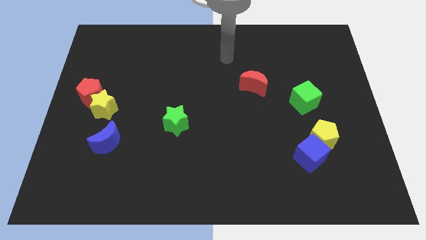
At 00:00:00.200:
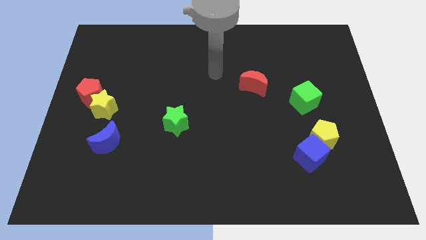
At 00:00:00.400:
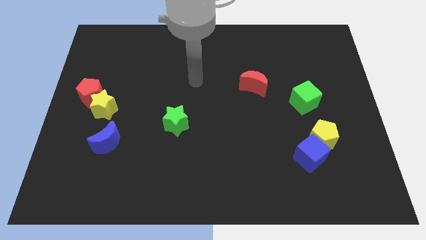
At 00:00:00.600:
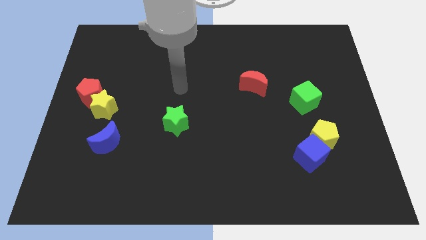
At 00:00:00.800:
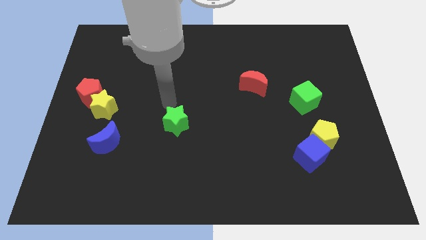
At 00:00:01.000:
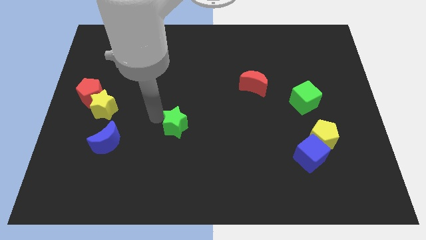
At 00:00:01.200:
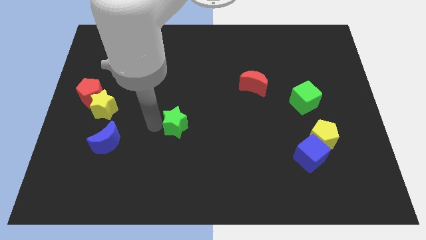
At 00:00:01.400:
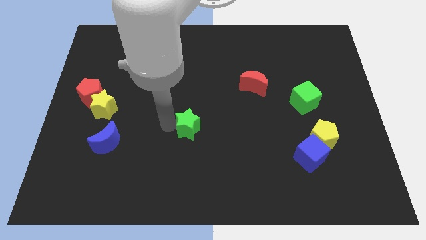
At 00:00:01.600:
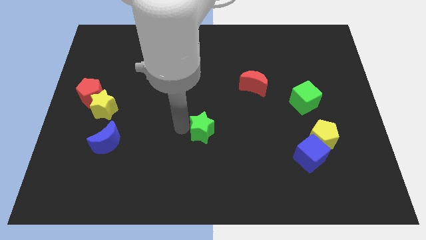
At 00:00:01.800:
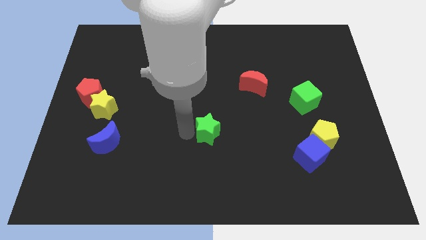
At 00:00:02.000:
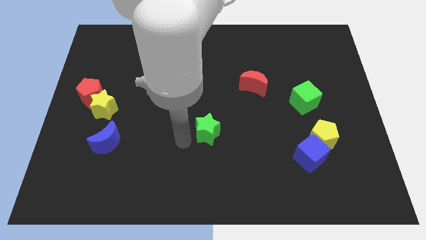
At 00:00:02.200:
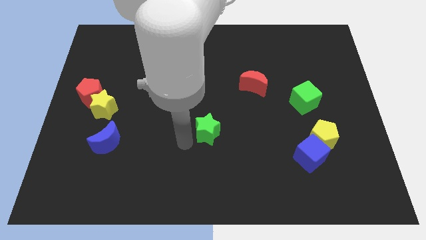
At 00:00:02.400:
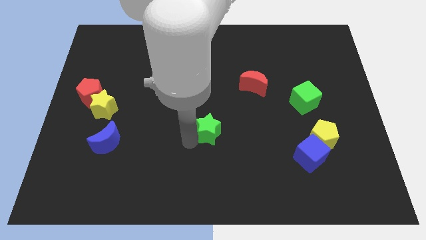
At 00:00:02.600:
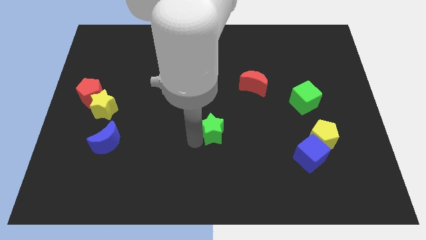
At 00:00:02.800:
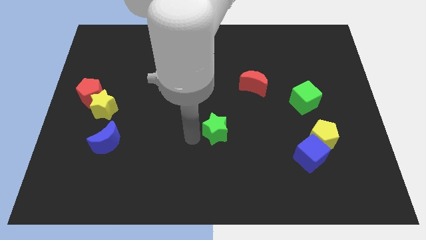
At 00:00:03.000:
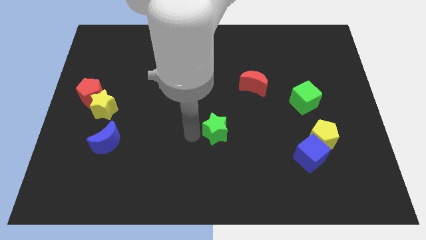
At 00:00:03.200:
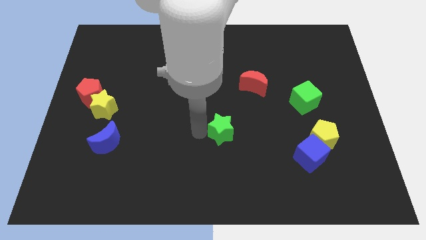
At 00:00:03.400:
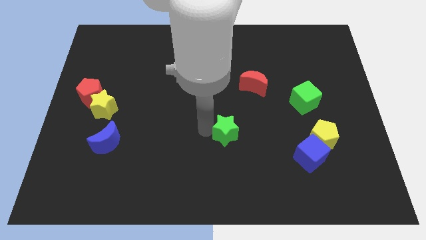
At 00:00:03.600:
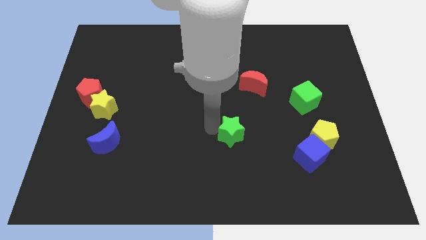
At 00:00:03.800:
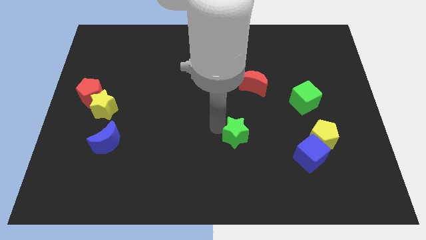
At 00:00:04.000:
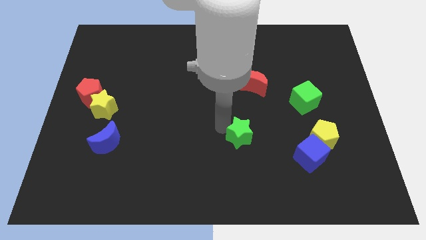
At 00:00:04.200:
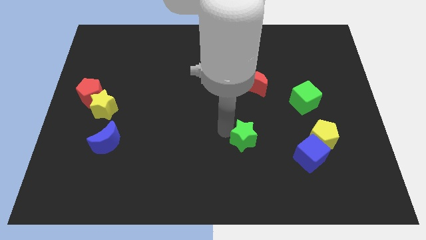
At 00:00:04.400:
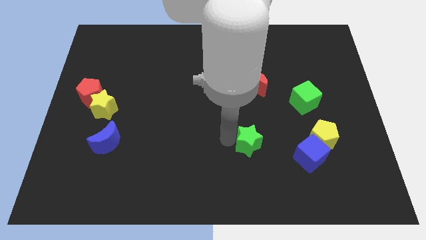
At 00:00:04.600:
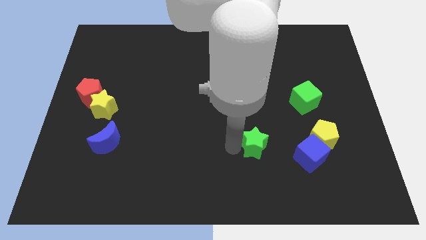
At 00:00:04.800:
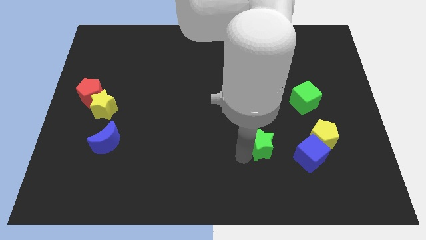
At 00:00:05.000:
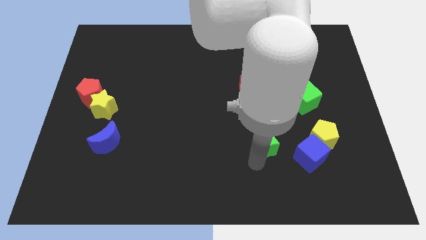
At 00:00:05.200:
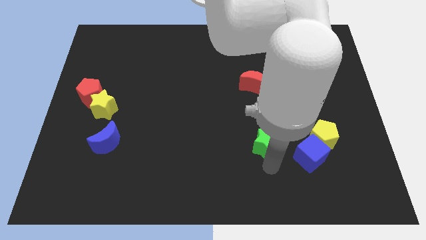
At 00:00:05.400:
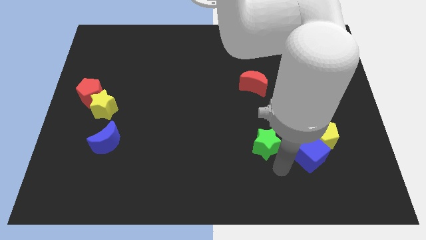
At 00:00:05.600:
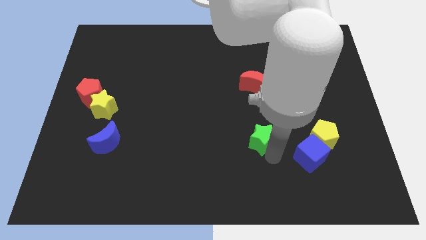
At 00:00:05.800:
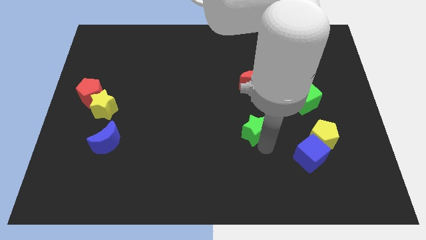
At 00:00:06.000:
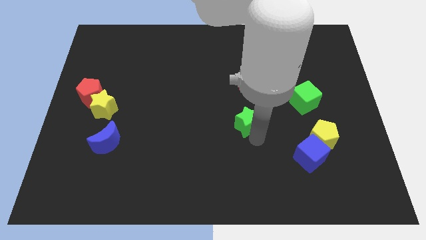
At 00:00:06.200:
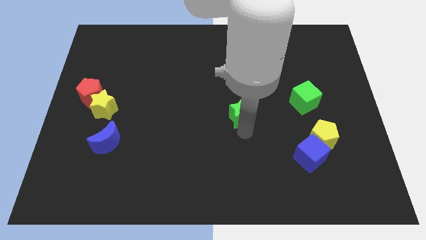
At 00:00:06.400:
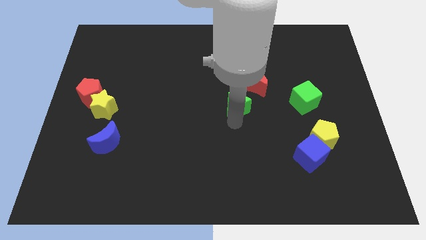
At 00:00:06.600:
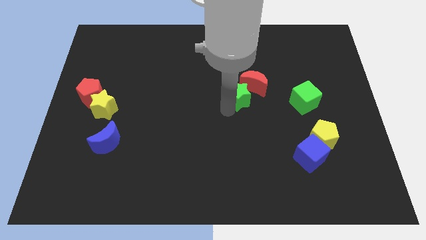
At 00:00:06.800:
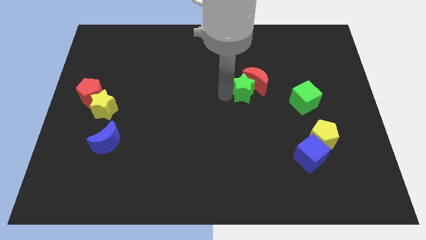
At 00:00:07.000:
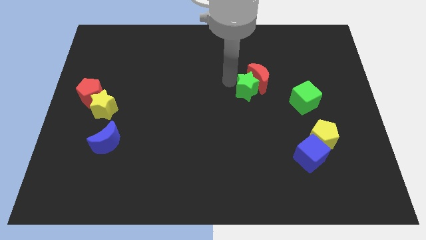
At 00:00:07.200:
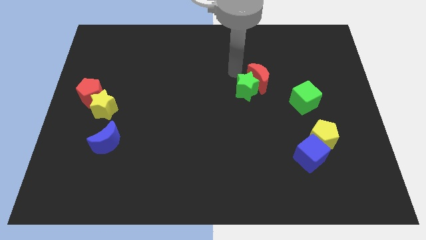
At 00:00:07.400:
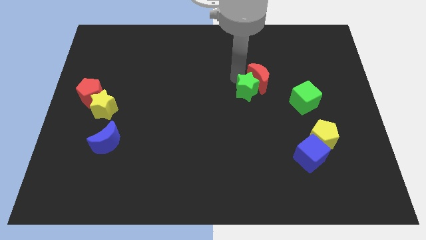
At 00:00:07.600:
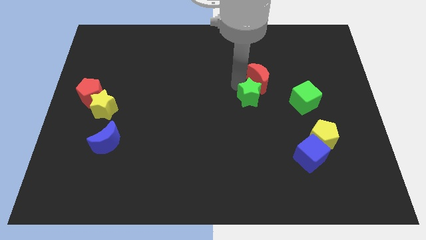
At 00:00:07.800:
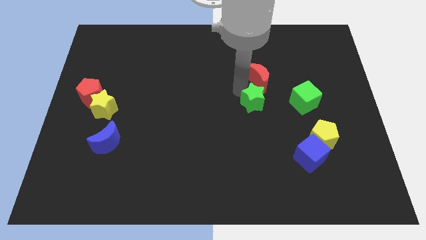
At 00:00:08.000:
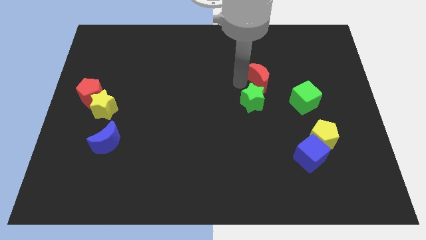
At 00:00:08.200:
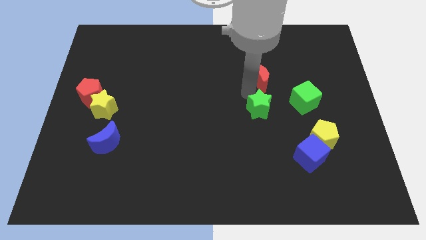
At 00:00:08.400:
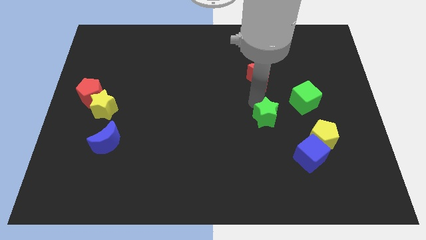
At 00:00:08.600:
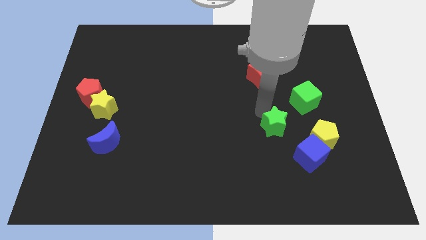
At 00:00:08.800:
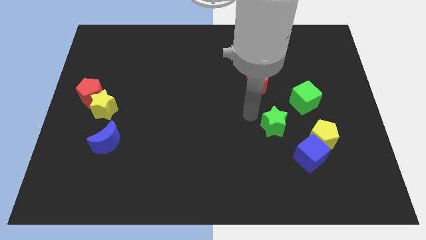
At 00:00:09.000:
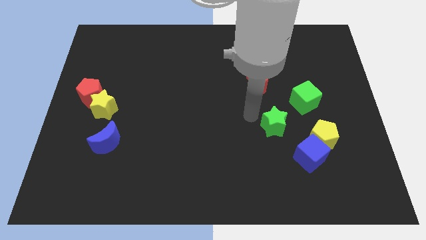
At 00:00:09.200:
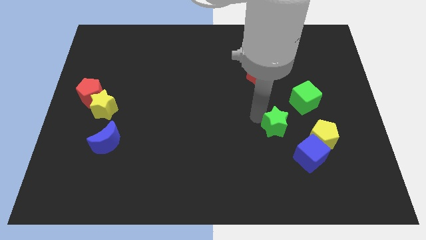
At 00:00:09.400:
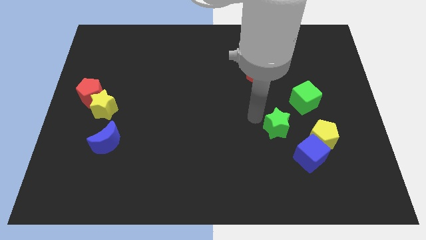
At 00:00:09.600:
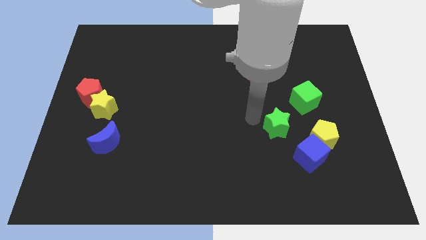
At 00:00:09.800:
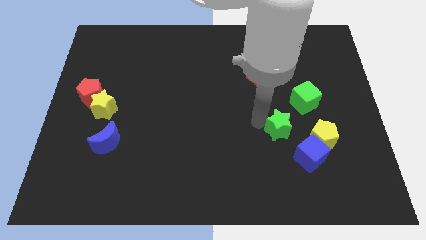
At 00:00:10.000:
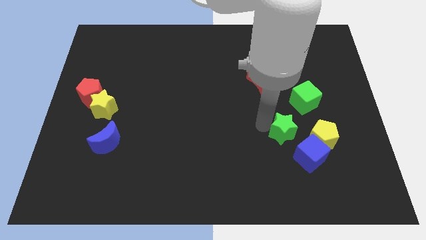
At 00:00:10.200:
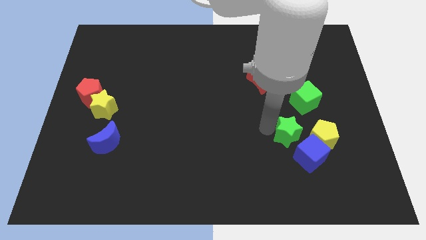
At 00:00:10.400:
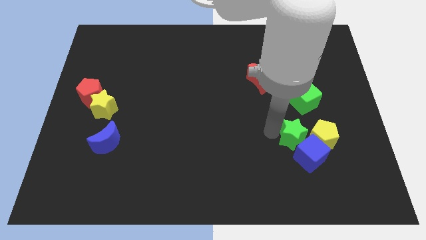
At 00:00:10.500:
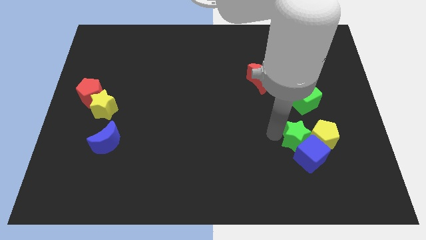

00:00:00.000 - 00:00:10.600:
slide the green star to the yellow pentagon

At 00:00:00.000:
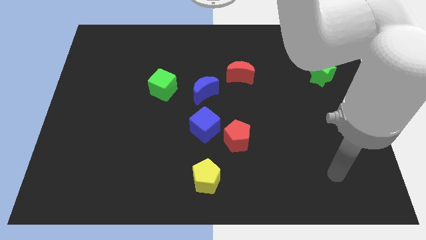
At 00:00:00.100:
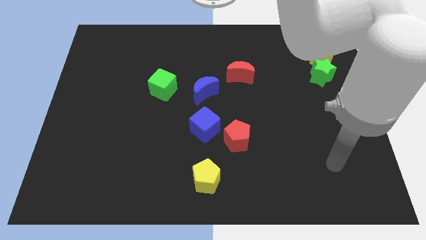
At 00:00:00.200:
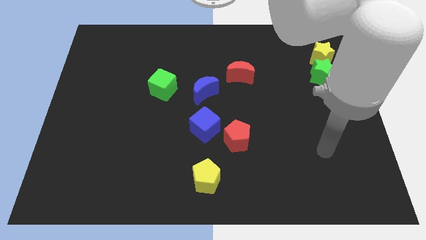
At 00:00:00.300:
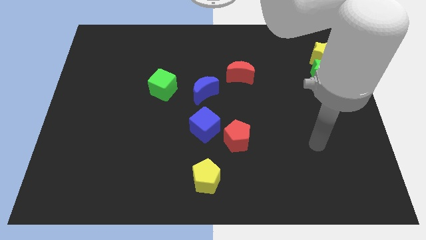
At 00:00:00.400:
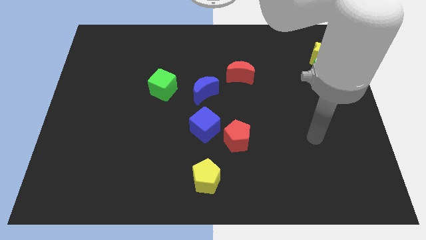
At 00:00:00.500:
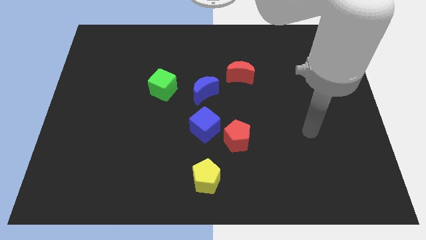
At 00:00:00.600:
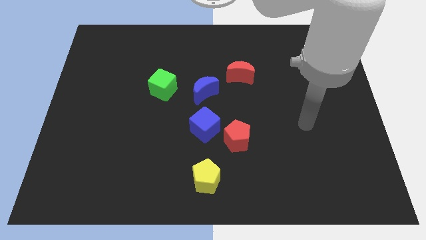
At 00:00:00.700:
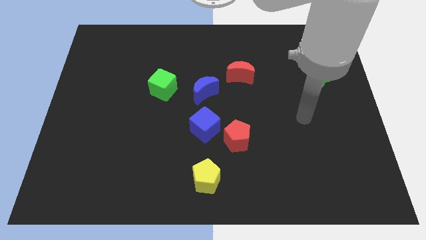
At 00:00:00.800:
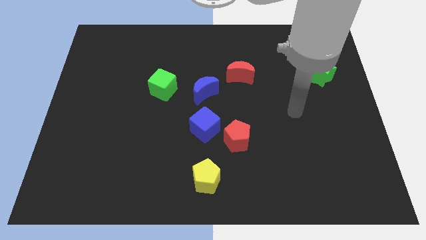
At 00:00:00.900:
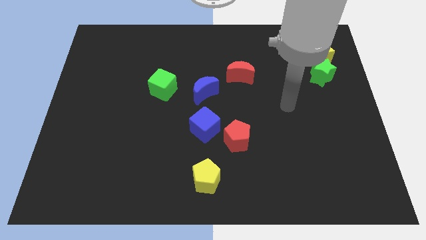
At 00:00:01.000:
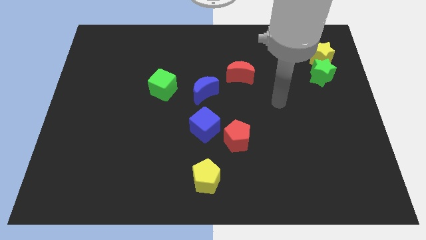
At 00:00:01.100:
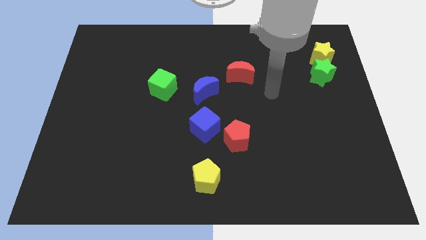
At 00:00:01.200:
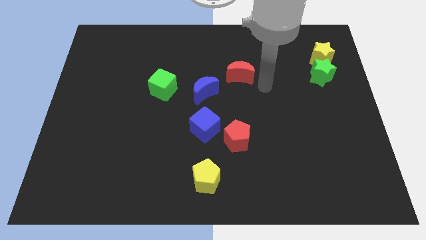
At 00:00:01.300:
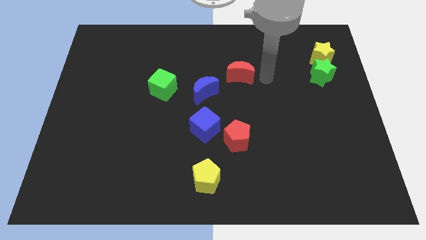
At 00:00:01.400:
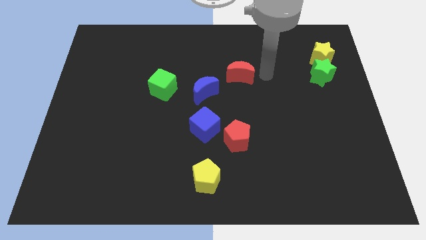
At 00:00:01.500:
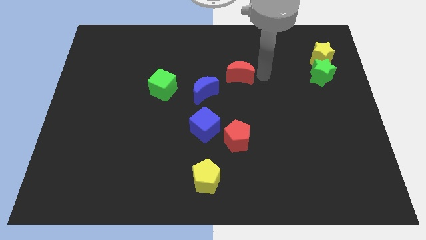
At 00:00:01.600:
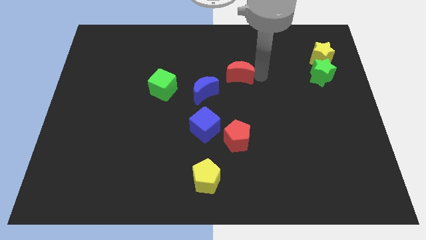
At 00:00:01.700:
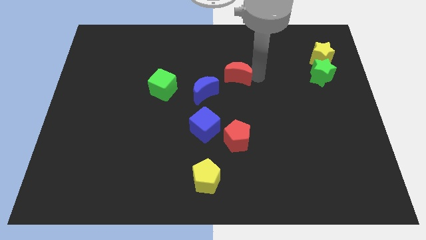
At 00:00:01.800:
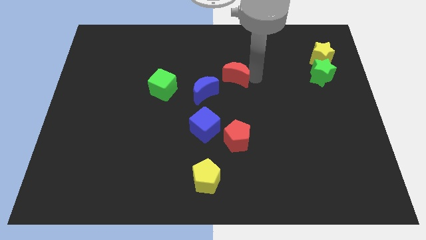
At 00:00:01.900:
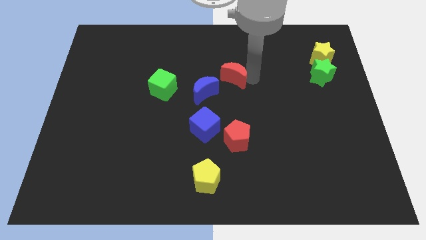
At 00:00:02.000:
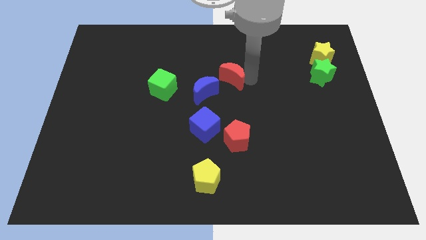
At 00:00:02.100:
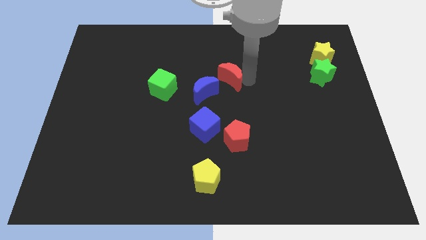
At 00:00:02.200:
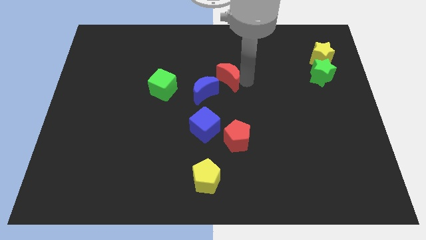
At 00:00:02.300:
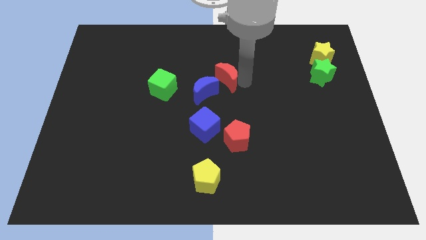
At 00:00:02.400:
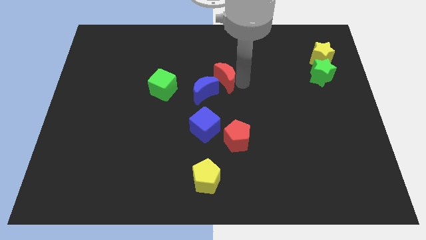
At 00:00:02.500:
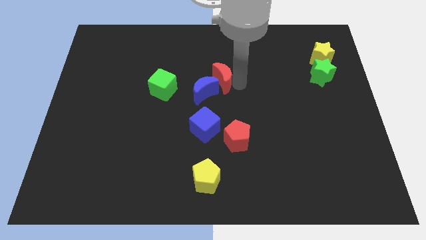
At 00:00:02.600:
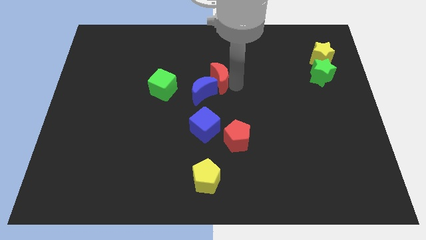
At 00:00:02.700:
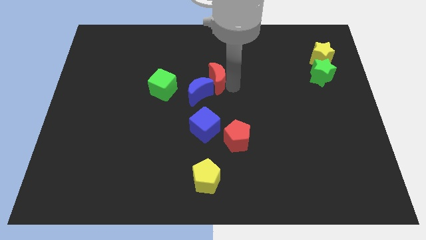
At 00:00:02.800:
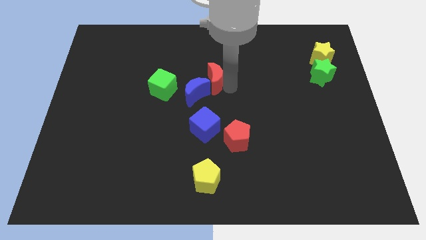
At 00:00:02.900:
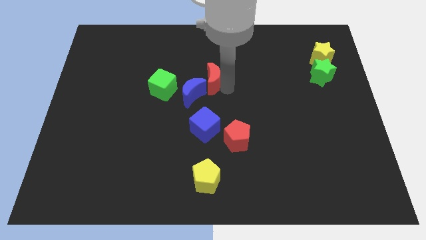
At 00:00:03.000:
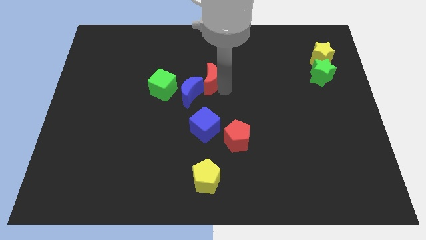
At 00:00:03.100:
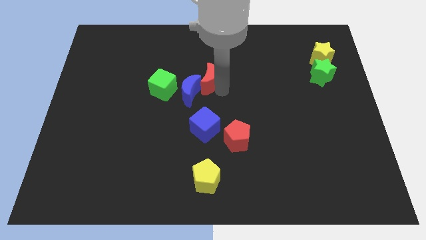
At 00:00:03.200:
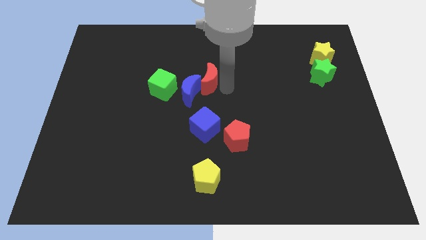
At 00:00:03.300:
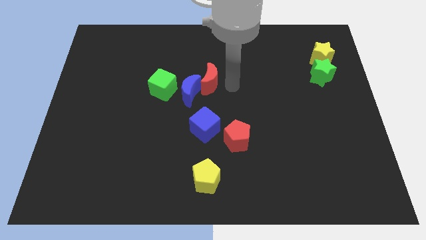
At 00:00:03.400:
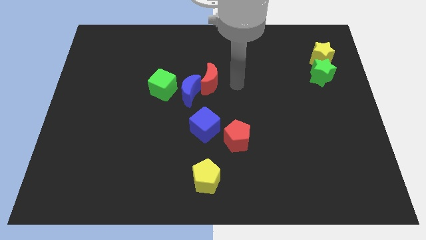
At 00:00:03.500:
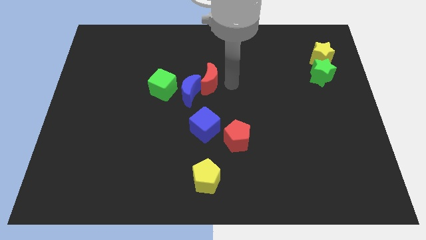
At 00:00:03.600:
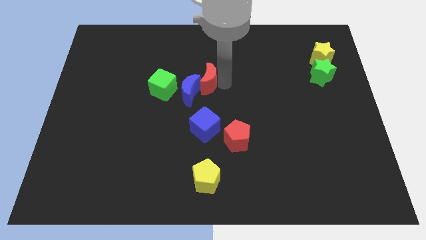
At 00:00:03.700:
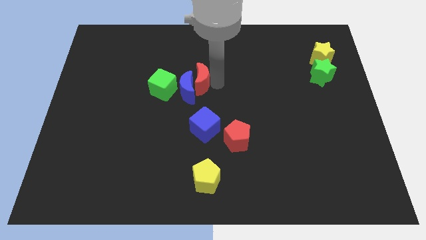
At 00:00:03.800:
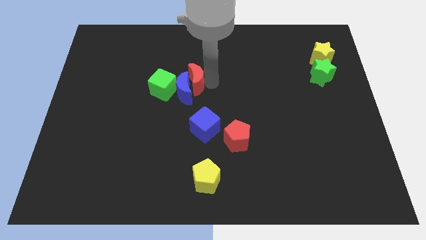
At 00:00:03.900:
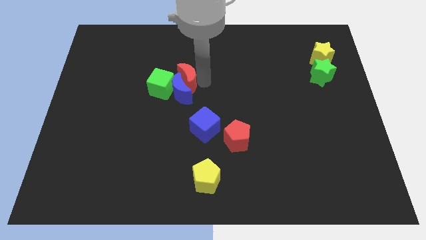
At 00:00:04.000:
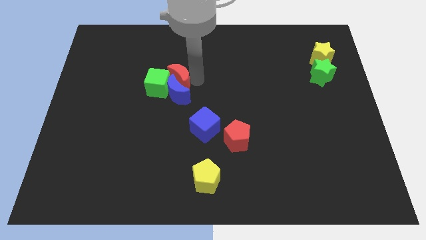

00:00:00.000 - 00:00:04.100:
put the red moon to the green cube
